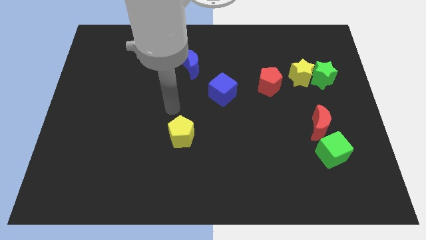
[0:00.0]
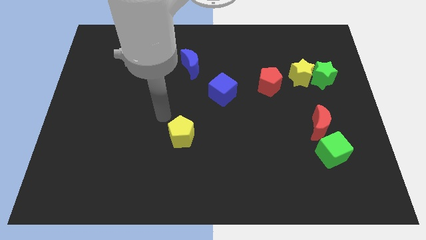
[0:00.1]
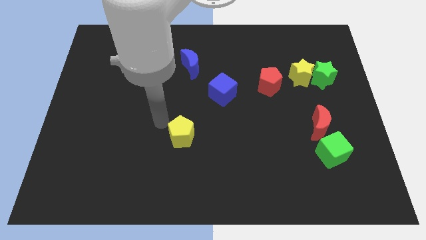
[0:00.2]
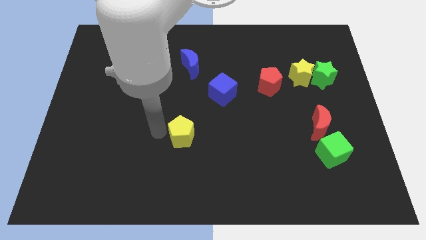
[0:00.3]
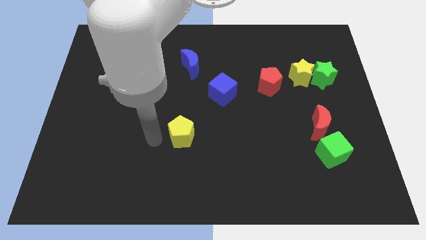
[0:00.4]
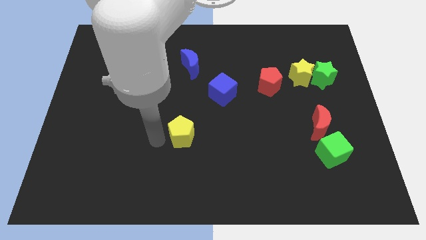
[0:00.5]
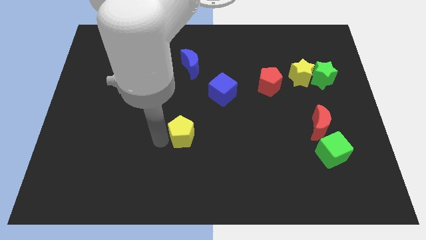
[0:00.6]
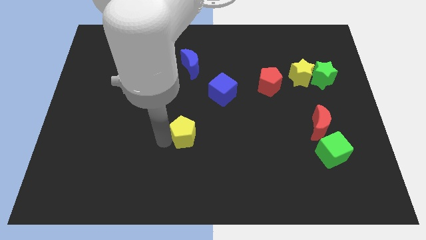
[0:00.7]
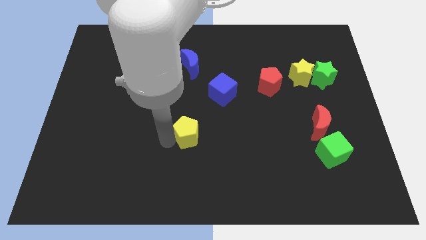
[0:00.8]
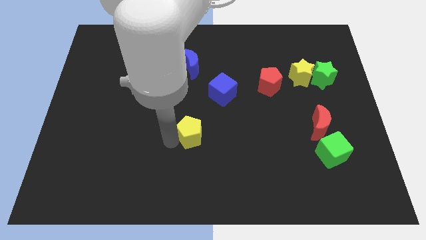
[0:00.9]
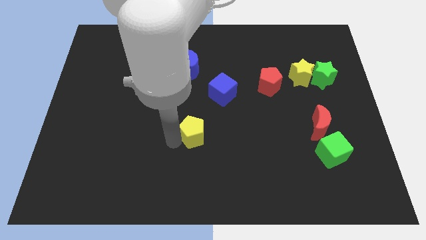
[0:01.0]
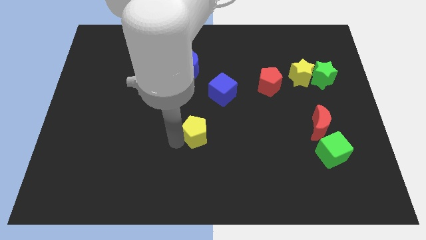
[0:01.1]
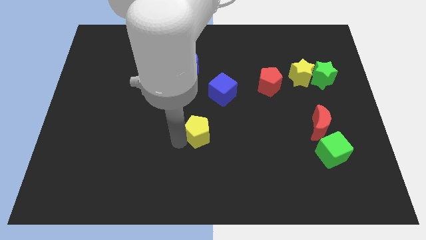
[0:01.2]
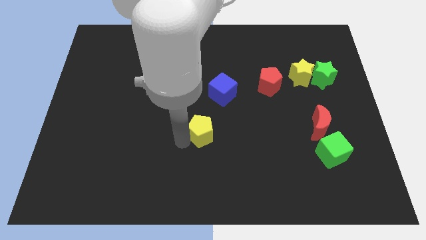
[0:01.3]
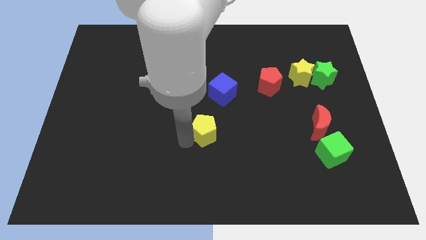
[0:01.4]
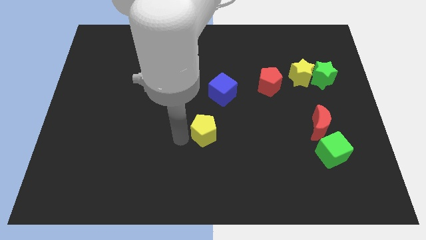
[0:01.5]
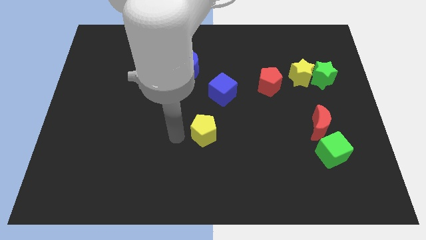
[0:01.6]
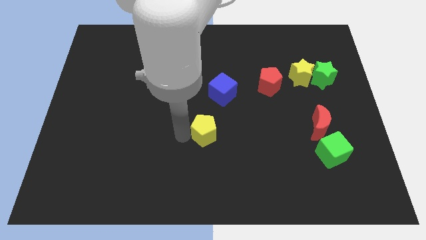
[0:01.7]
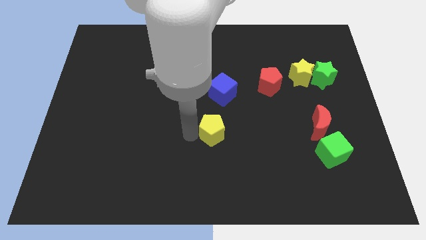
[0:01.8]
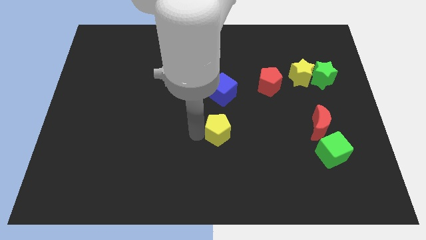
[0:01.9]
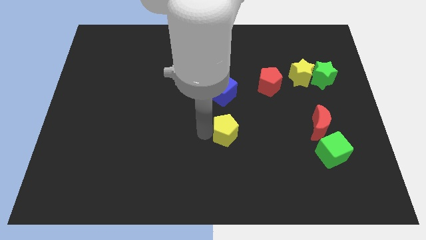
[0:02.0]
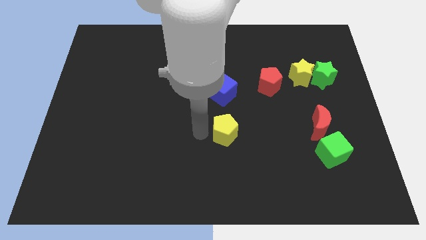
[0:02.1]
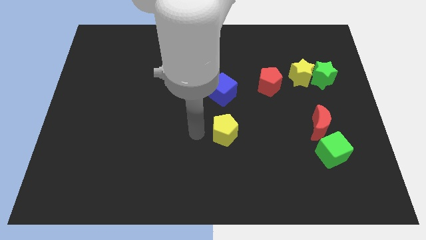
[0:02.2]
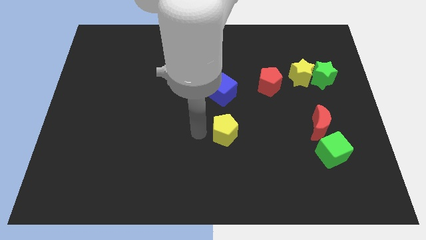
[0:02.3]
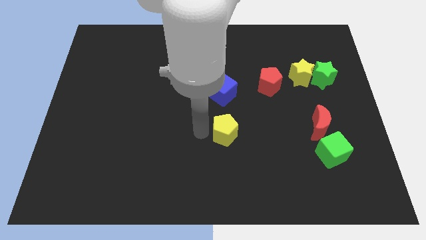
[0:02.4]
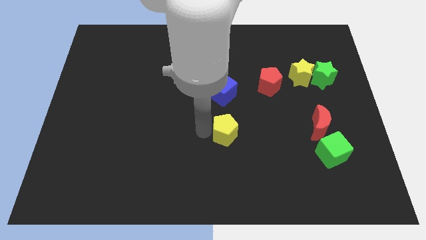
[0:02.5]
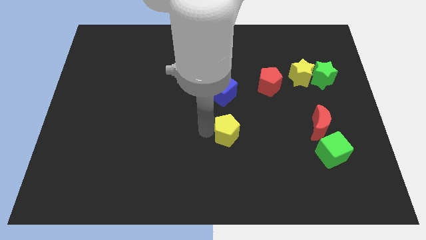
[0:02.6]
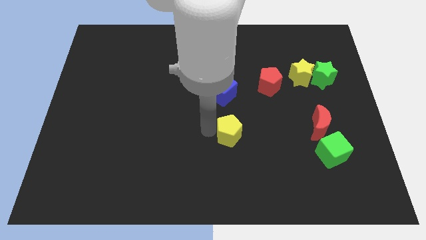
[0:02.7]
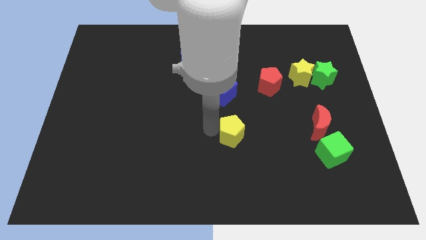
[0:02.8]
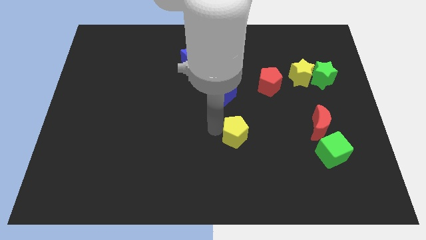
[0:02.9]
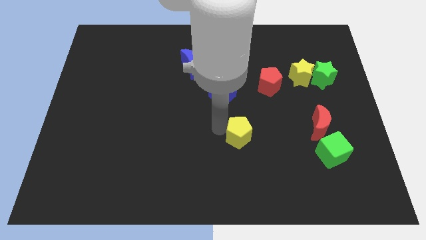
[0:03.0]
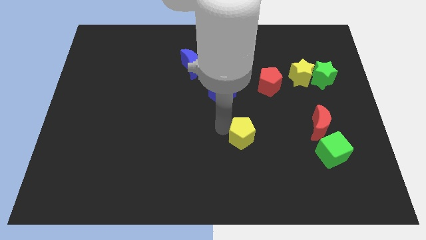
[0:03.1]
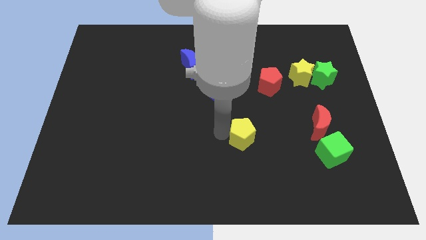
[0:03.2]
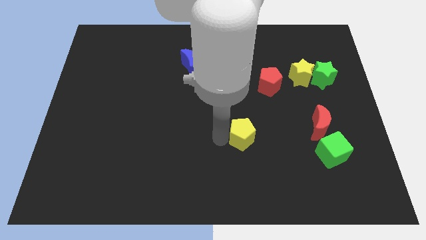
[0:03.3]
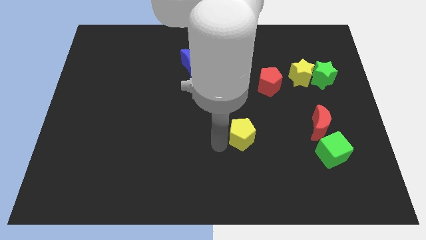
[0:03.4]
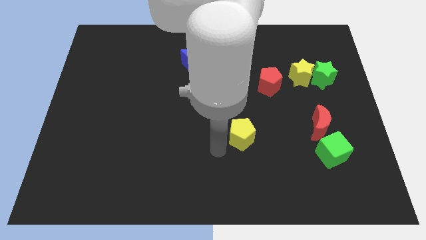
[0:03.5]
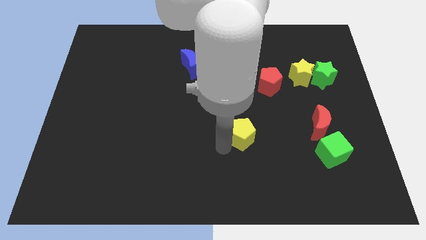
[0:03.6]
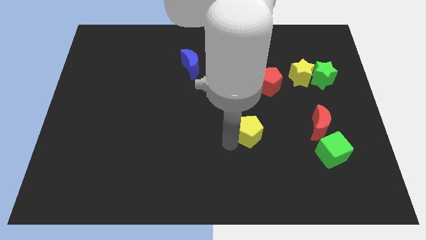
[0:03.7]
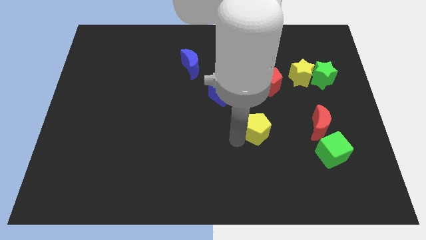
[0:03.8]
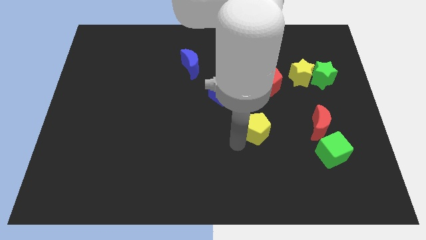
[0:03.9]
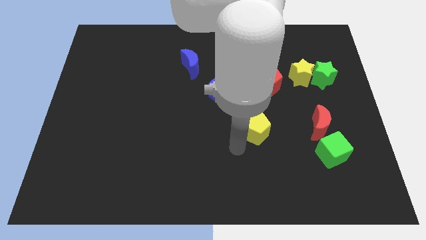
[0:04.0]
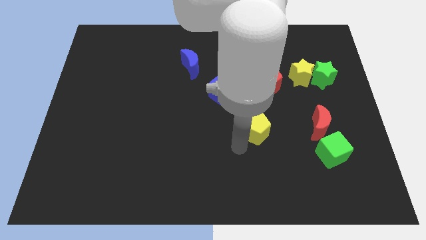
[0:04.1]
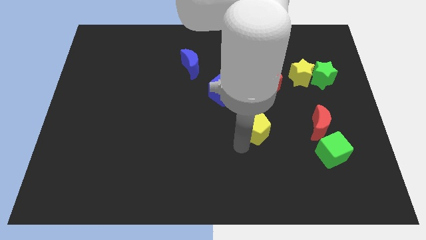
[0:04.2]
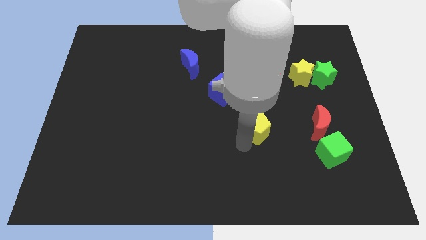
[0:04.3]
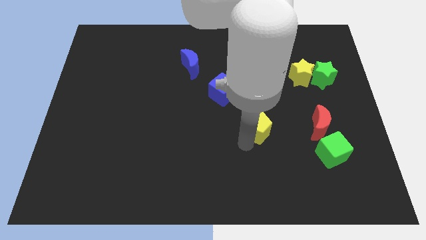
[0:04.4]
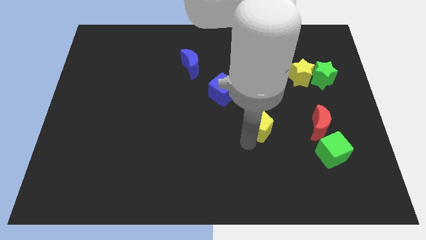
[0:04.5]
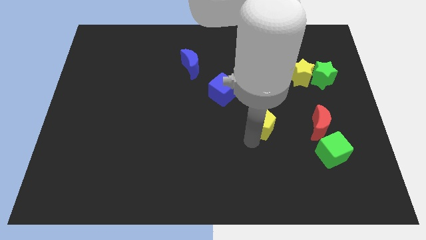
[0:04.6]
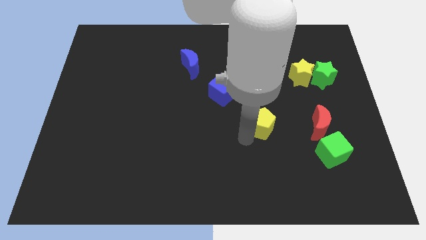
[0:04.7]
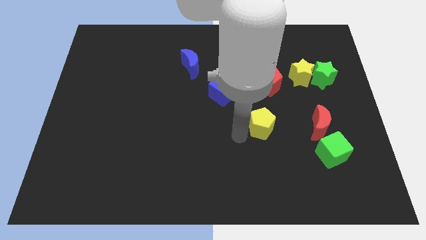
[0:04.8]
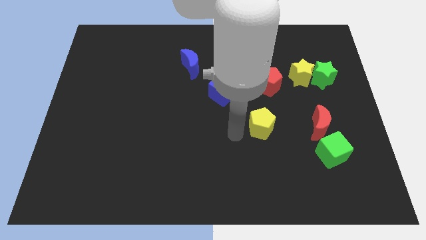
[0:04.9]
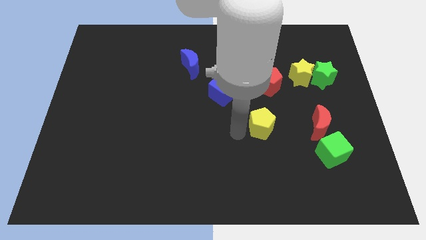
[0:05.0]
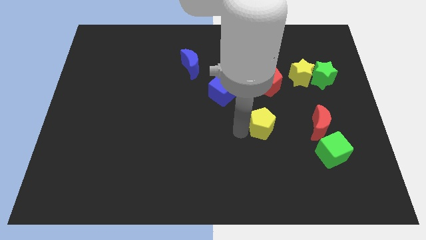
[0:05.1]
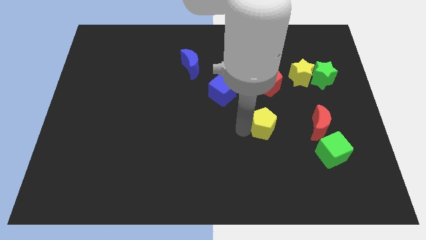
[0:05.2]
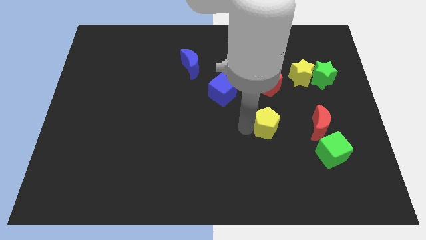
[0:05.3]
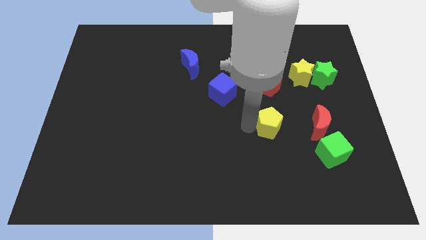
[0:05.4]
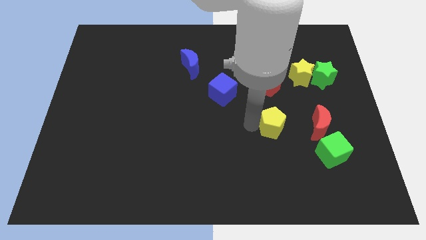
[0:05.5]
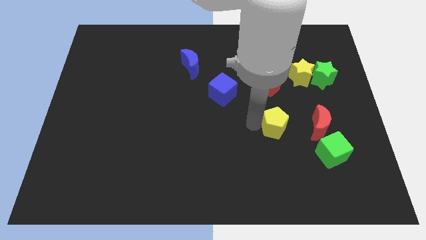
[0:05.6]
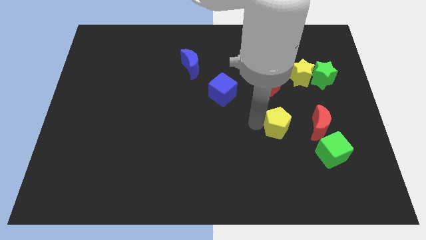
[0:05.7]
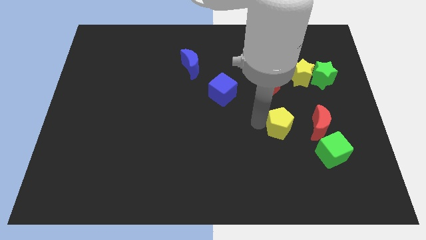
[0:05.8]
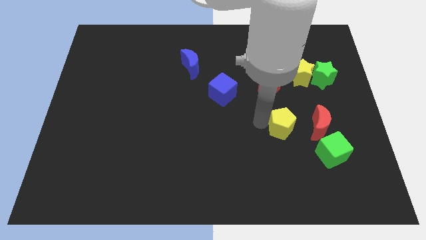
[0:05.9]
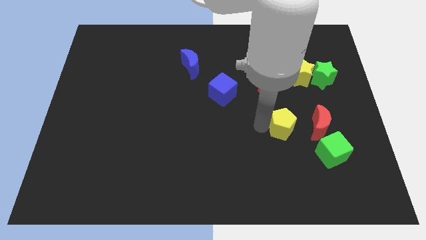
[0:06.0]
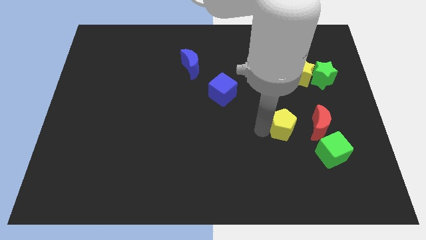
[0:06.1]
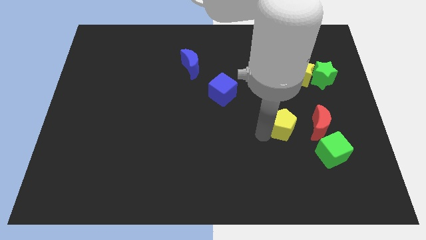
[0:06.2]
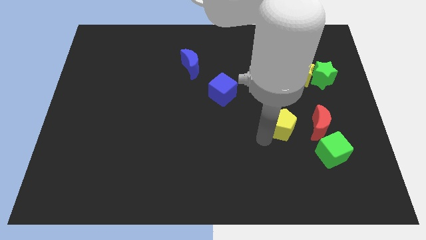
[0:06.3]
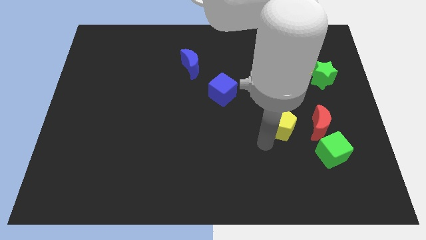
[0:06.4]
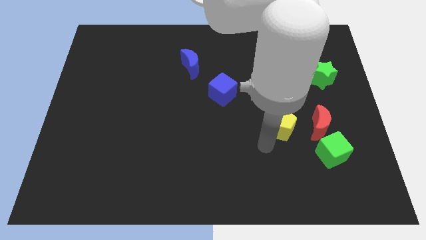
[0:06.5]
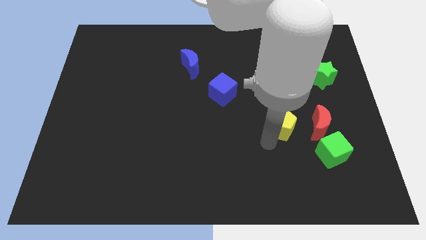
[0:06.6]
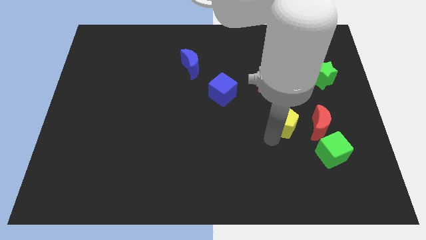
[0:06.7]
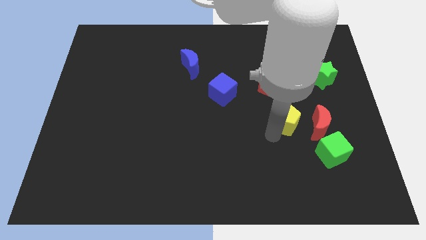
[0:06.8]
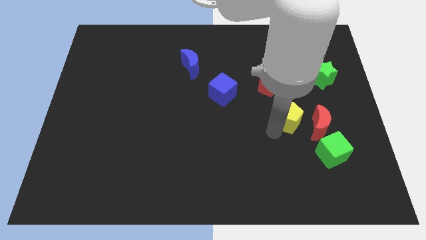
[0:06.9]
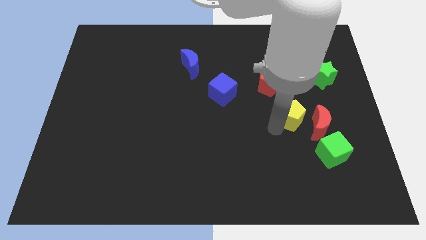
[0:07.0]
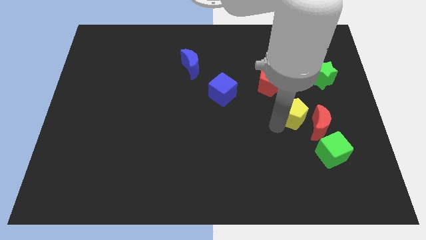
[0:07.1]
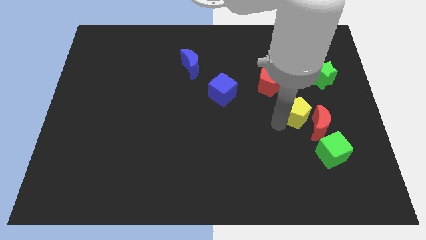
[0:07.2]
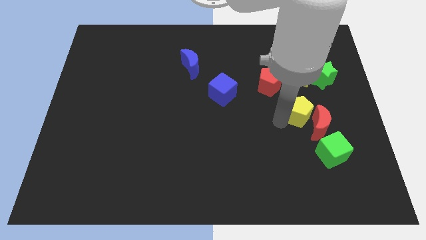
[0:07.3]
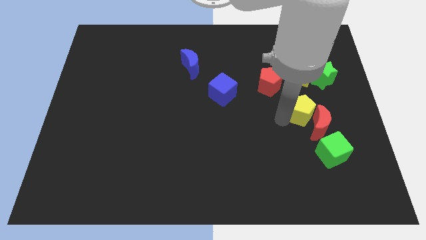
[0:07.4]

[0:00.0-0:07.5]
move the yellow pentagon above the green cube
